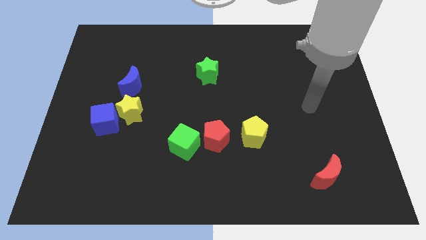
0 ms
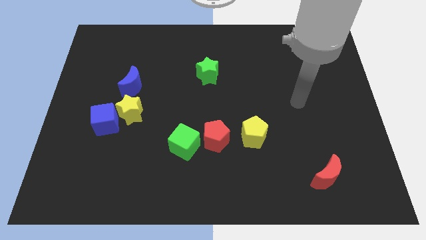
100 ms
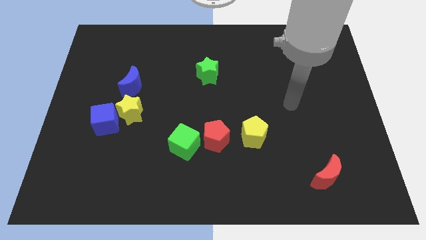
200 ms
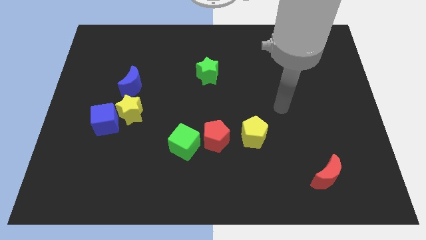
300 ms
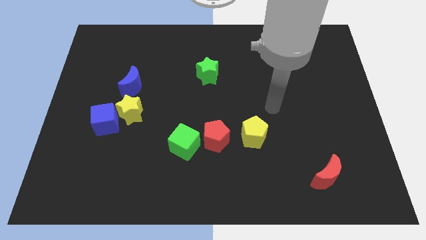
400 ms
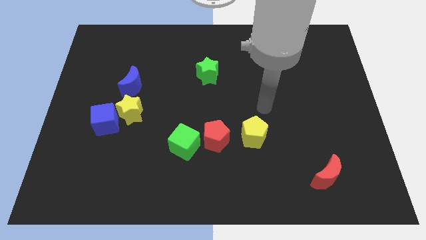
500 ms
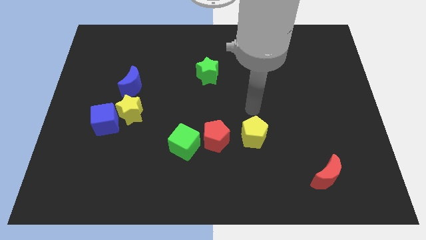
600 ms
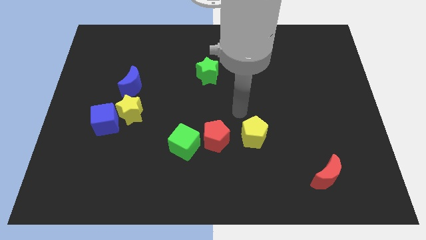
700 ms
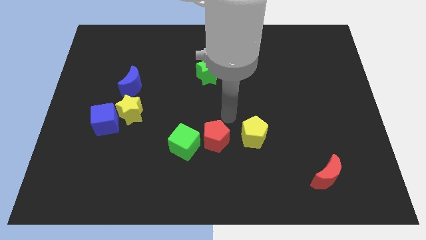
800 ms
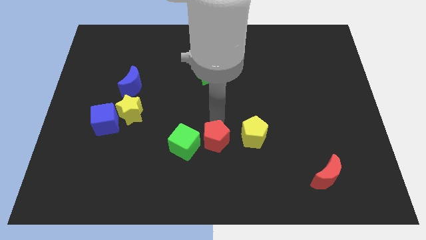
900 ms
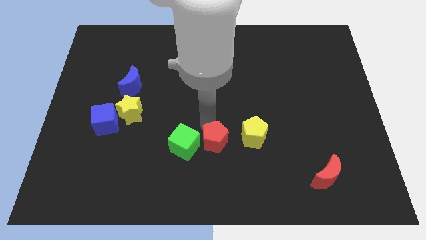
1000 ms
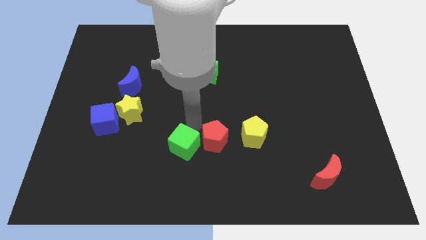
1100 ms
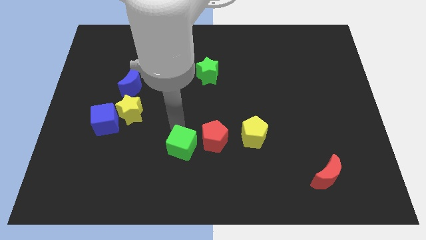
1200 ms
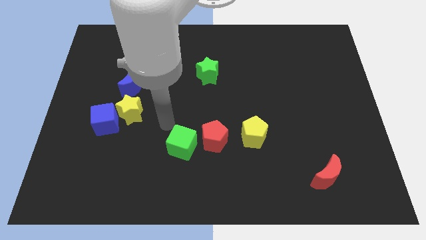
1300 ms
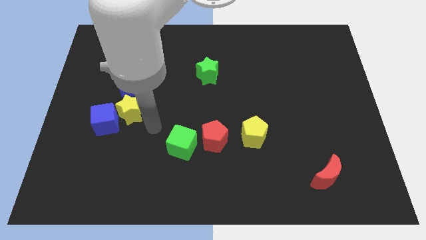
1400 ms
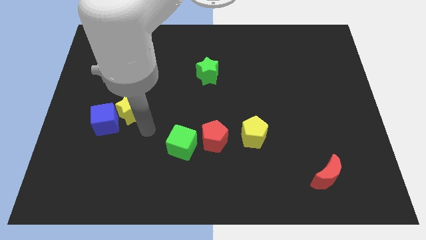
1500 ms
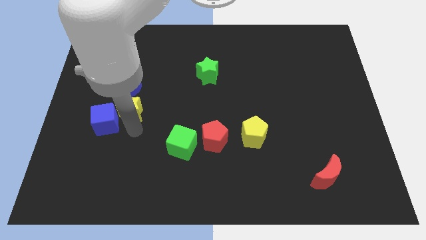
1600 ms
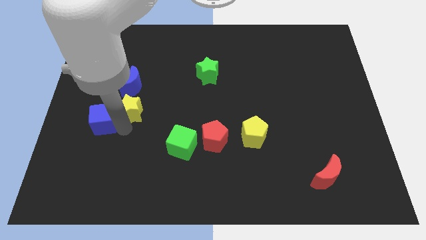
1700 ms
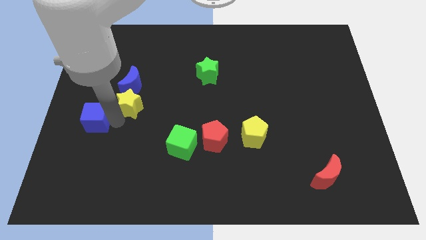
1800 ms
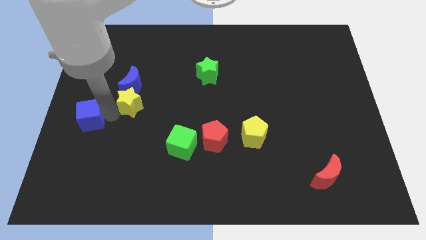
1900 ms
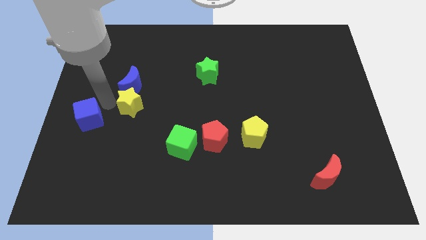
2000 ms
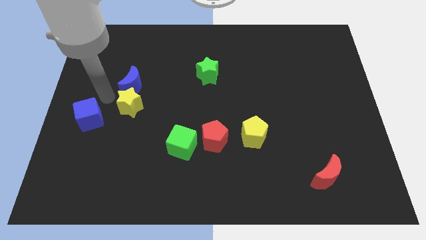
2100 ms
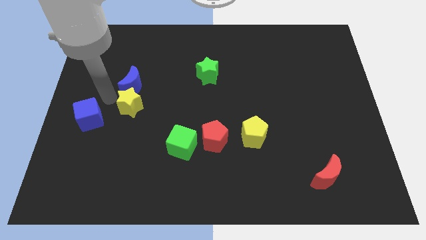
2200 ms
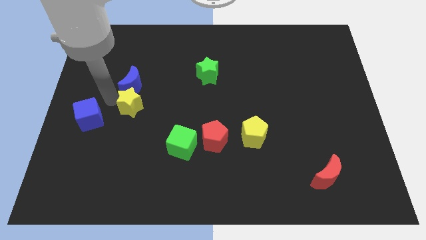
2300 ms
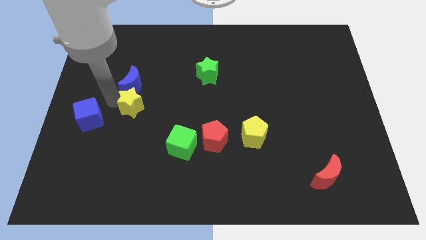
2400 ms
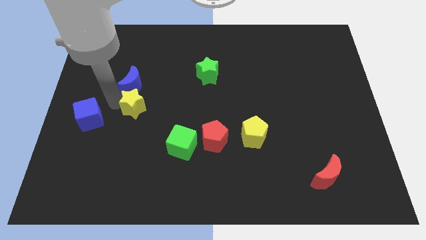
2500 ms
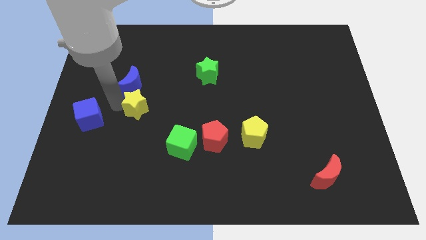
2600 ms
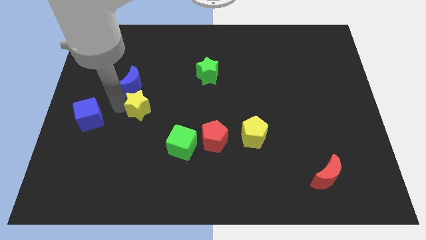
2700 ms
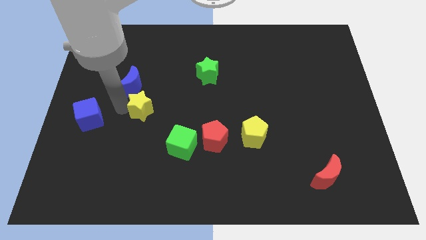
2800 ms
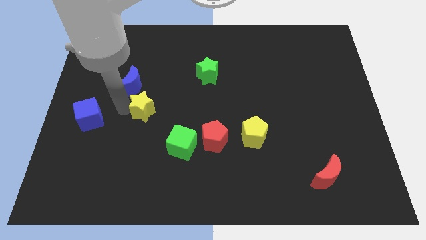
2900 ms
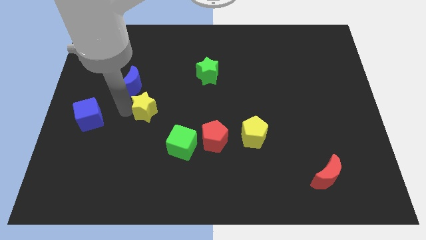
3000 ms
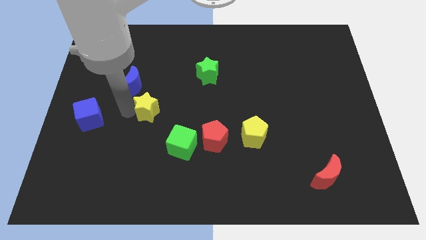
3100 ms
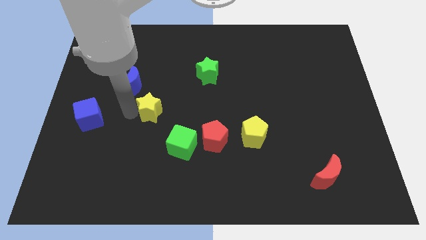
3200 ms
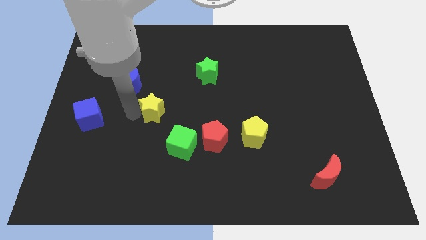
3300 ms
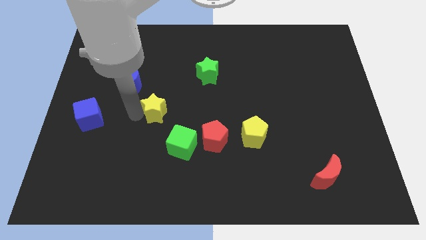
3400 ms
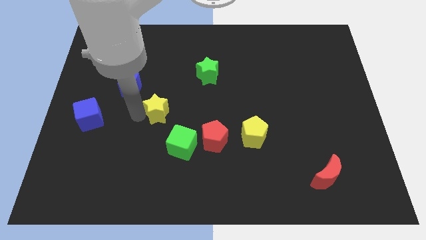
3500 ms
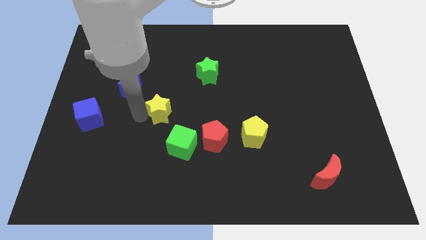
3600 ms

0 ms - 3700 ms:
slightly move the yellow star right

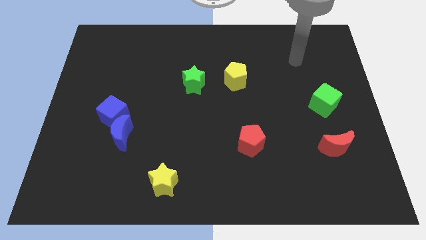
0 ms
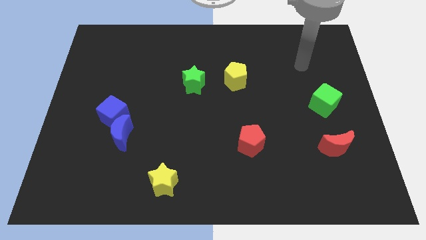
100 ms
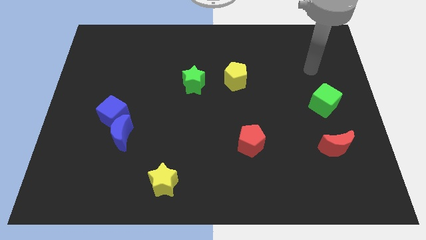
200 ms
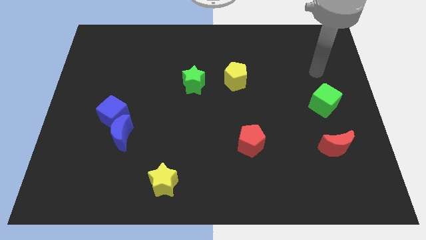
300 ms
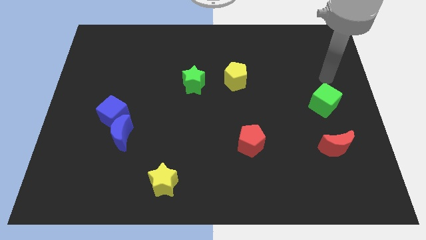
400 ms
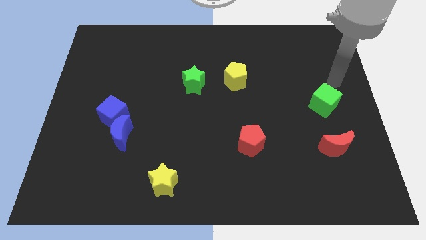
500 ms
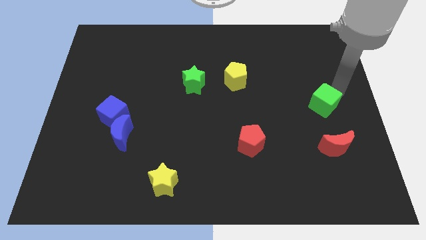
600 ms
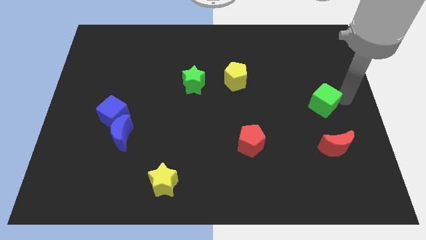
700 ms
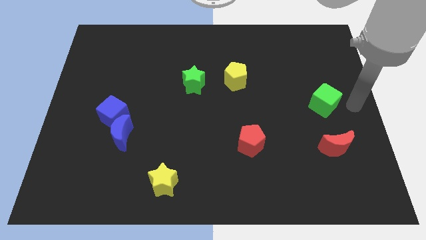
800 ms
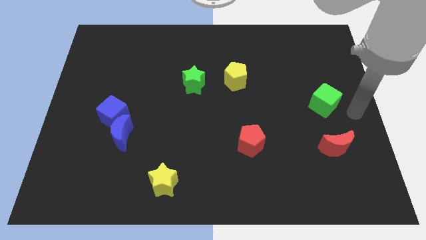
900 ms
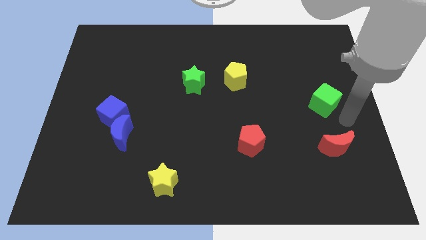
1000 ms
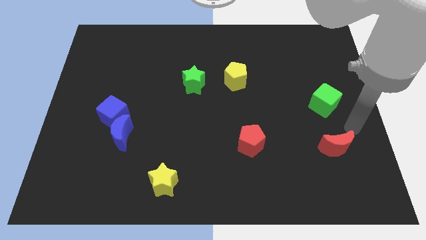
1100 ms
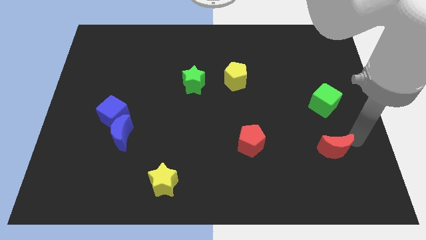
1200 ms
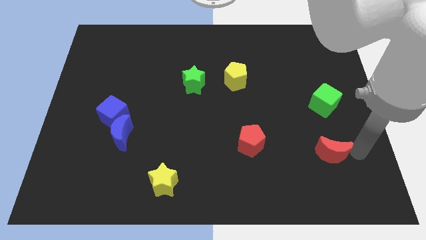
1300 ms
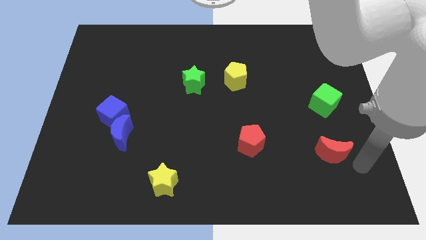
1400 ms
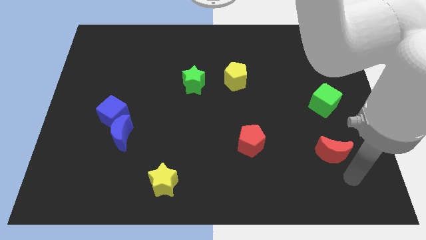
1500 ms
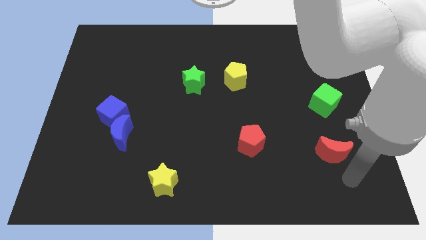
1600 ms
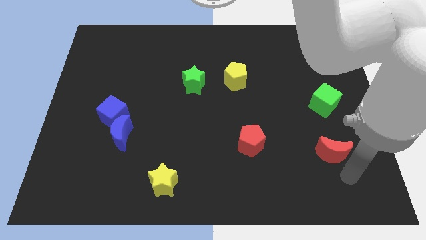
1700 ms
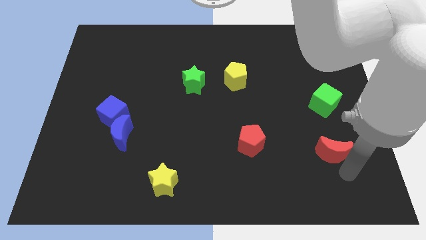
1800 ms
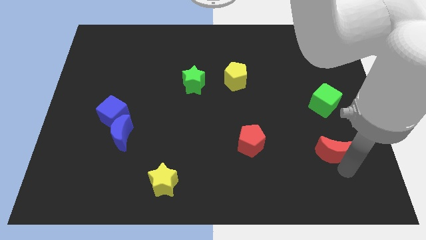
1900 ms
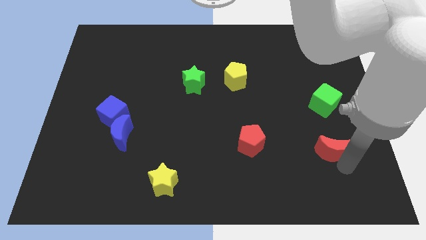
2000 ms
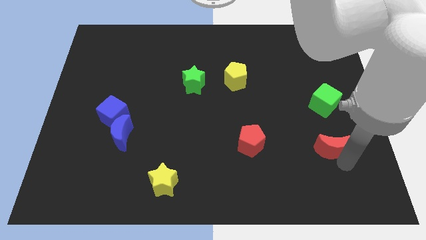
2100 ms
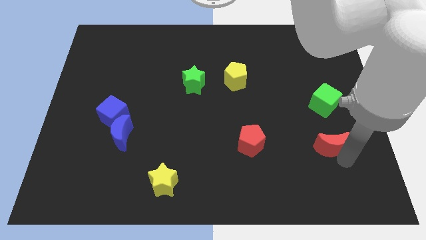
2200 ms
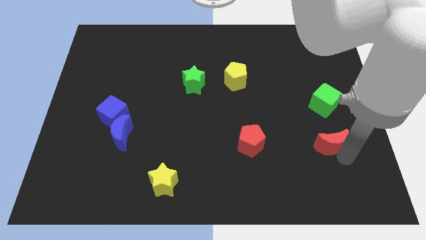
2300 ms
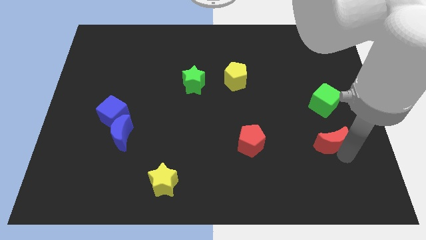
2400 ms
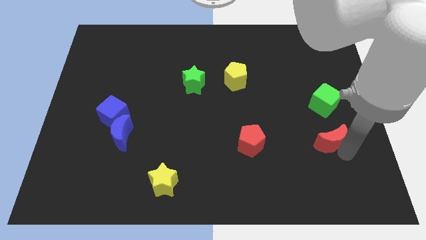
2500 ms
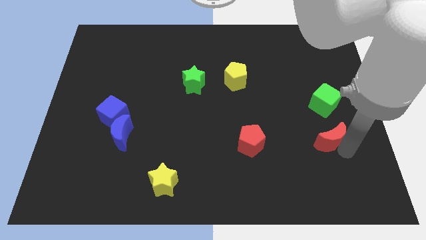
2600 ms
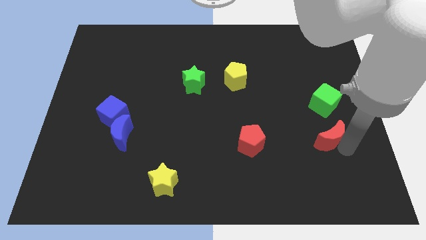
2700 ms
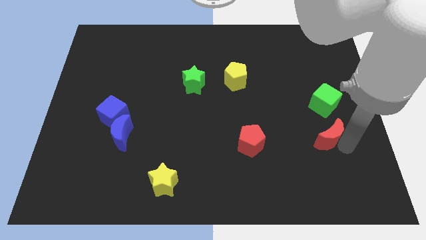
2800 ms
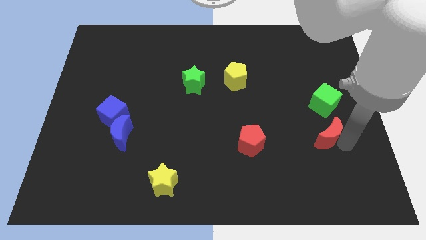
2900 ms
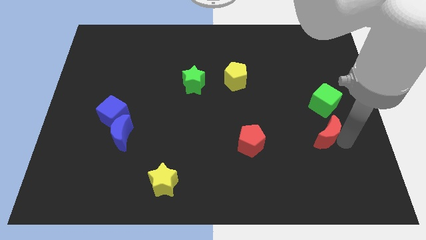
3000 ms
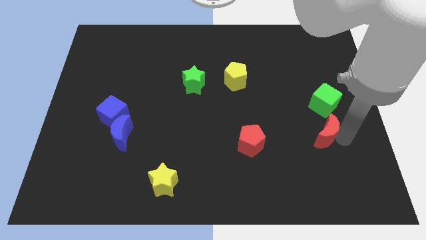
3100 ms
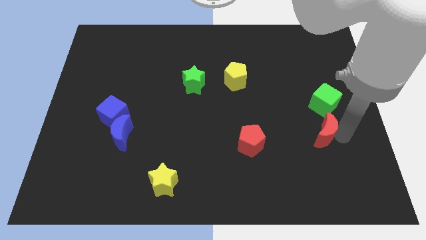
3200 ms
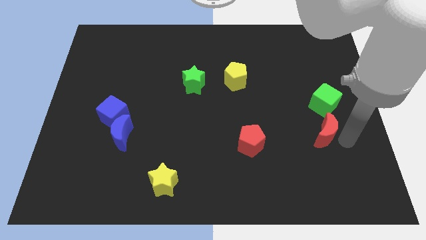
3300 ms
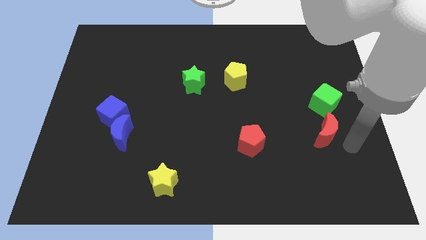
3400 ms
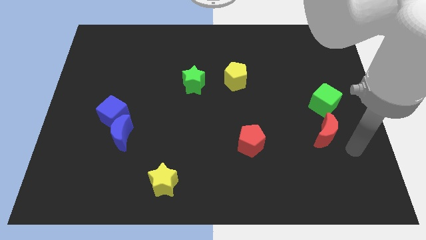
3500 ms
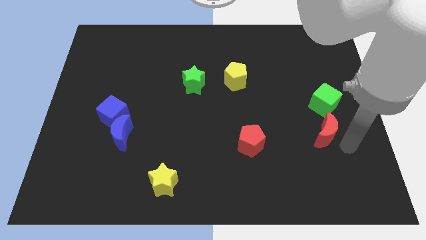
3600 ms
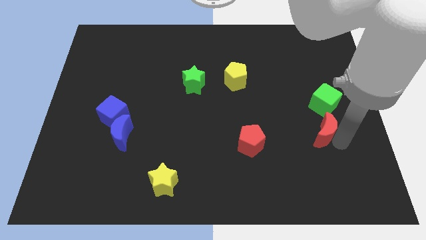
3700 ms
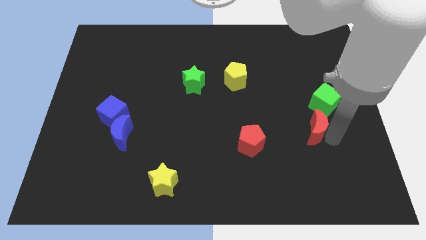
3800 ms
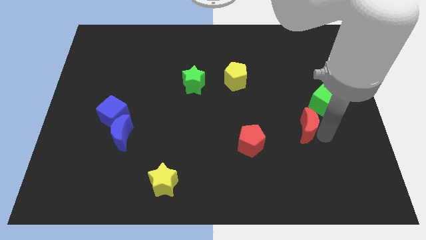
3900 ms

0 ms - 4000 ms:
slide the red moon diagonally up and to the left somewhat

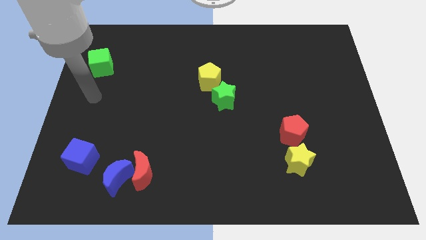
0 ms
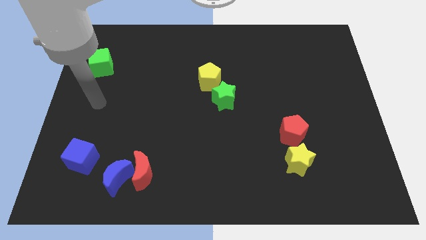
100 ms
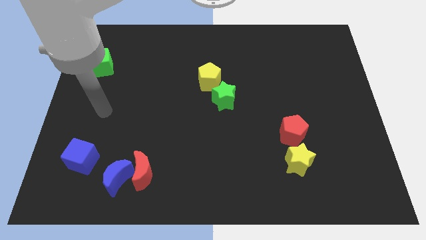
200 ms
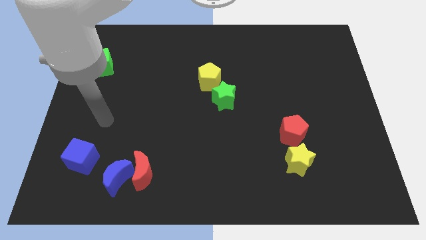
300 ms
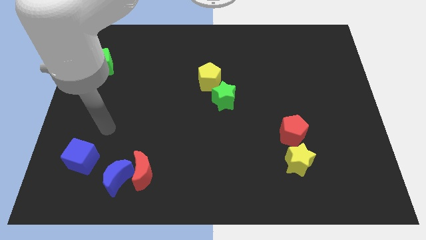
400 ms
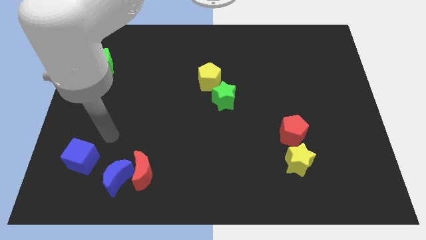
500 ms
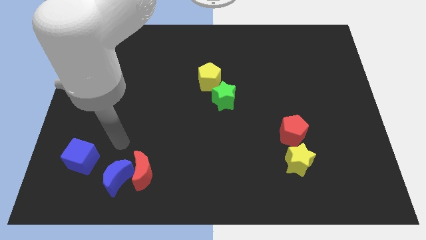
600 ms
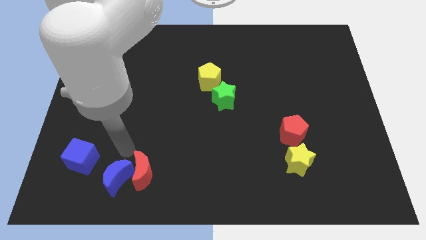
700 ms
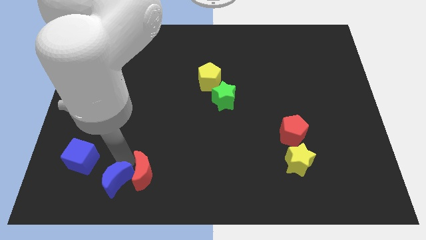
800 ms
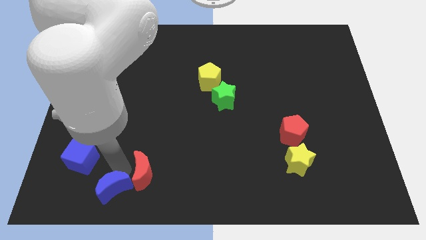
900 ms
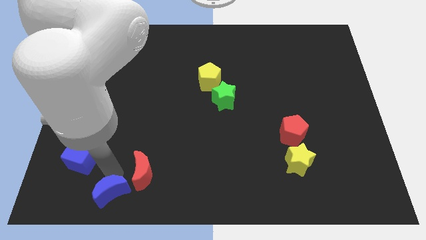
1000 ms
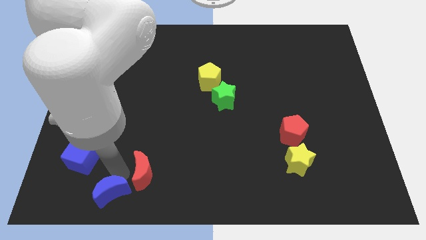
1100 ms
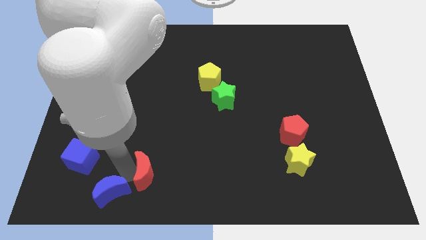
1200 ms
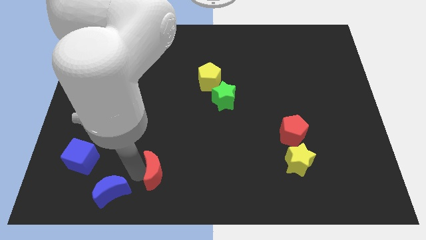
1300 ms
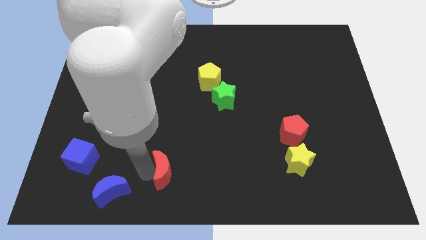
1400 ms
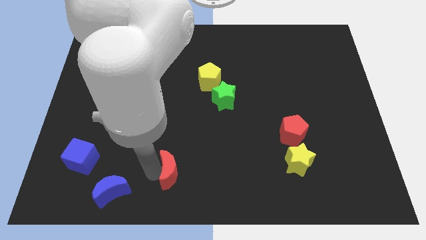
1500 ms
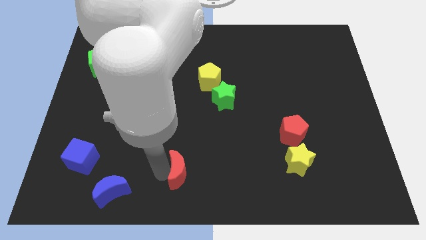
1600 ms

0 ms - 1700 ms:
move the red moon right a little bit
